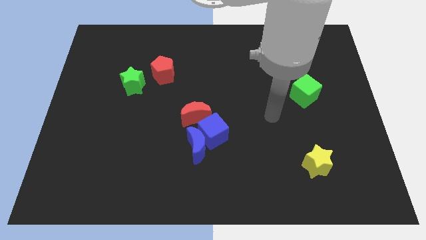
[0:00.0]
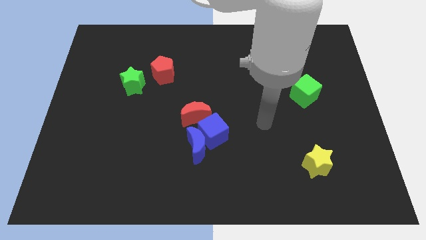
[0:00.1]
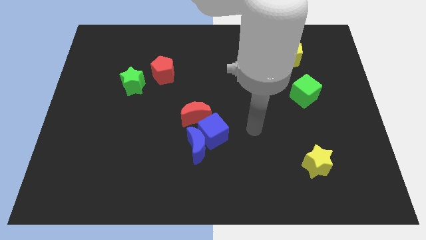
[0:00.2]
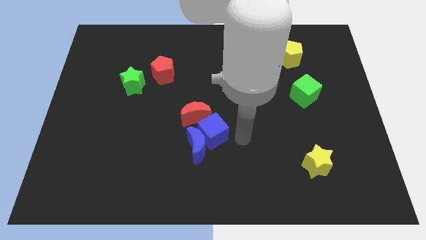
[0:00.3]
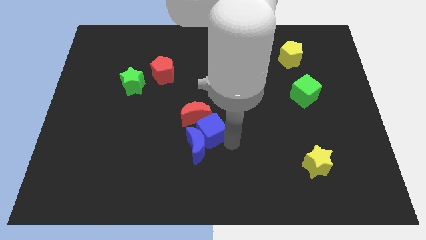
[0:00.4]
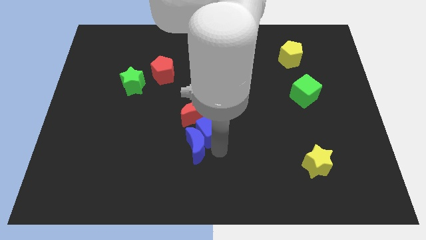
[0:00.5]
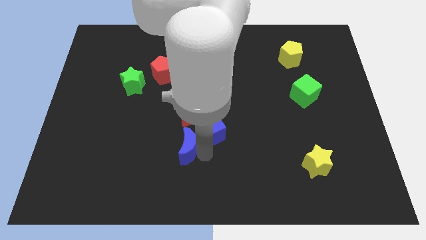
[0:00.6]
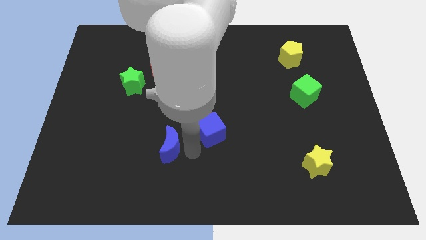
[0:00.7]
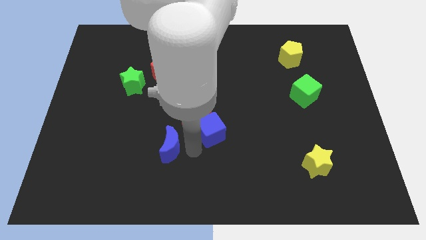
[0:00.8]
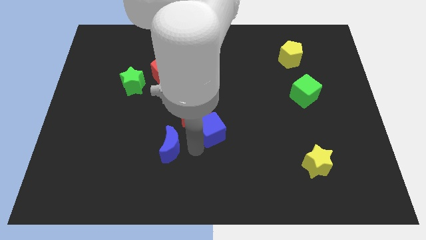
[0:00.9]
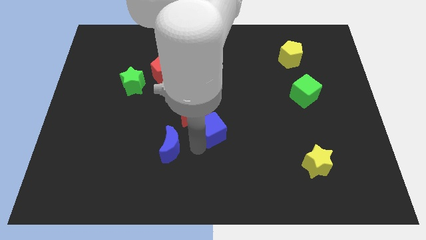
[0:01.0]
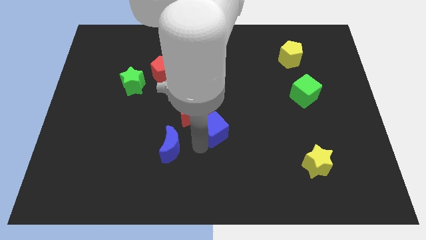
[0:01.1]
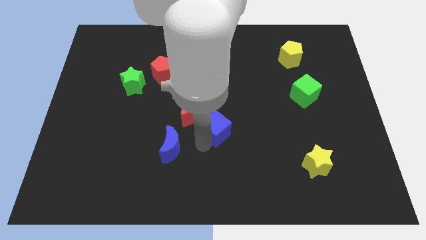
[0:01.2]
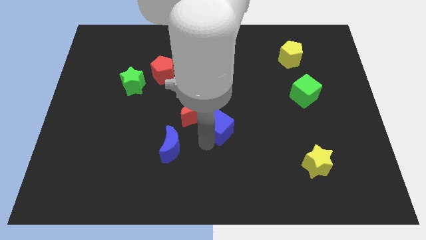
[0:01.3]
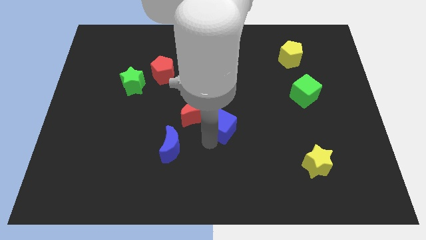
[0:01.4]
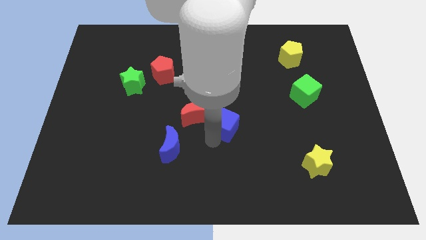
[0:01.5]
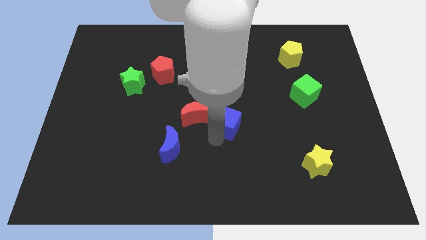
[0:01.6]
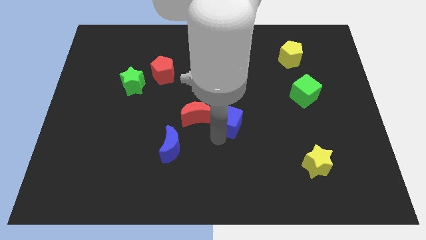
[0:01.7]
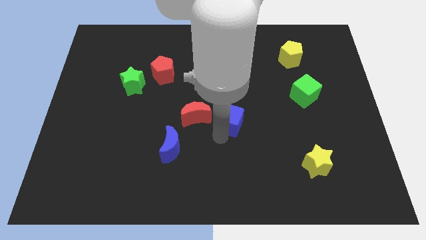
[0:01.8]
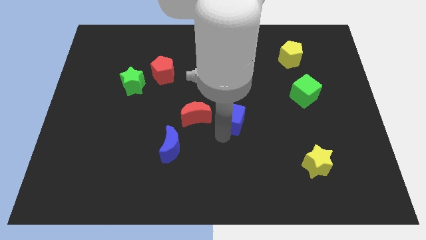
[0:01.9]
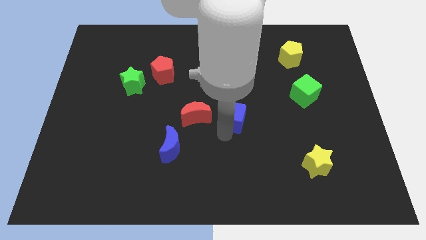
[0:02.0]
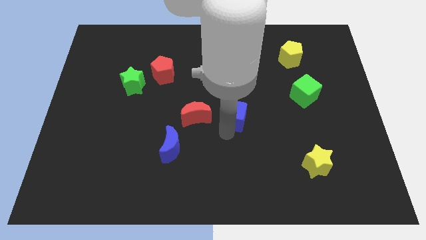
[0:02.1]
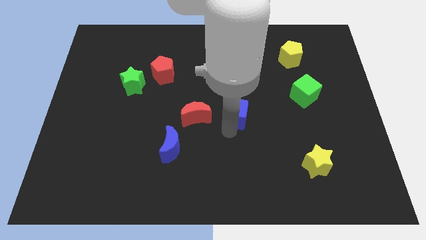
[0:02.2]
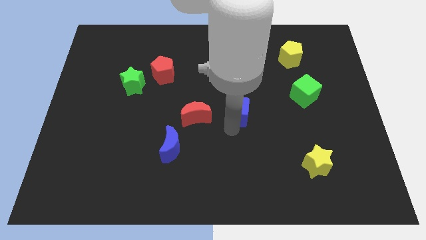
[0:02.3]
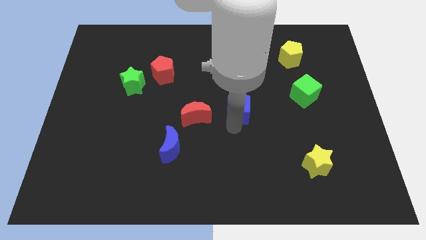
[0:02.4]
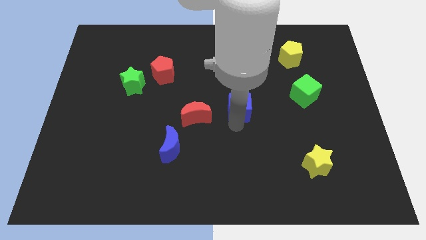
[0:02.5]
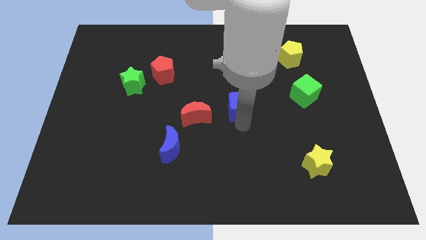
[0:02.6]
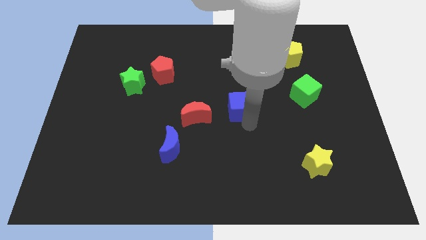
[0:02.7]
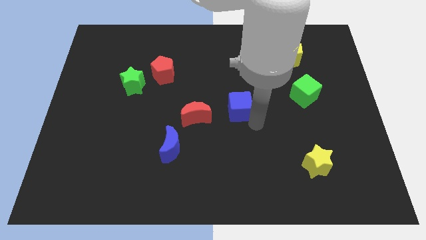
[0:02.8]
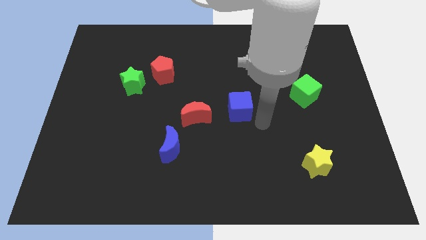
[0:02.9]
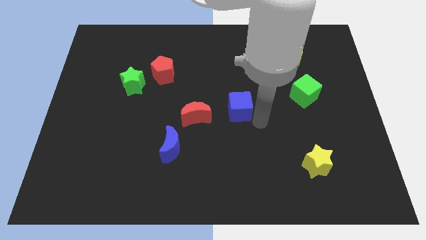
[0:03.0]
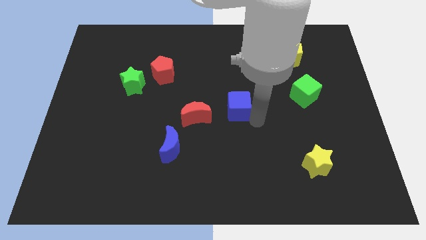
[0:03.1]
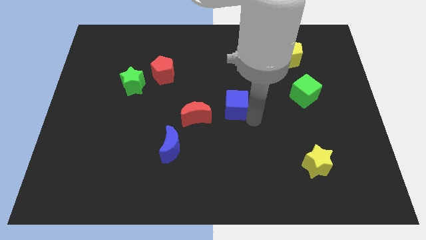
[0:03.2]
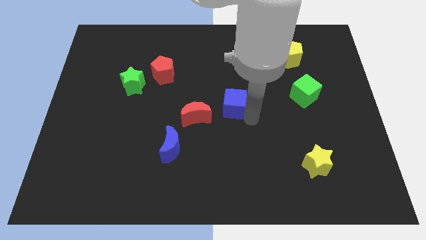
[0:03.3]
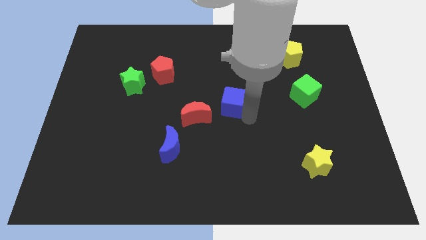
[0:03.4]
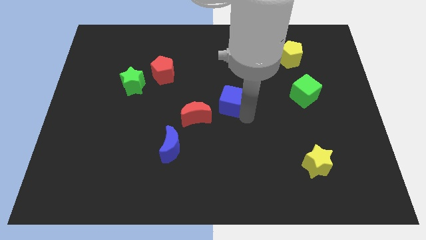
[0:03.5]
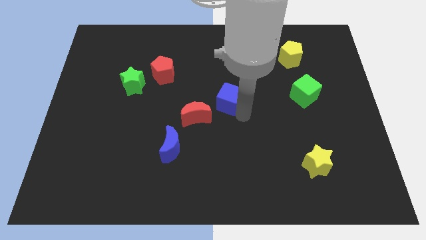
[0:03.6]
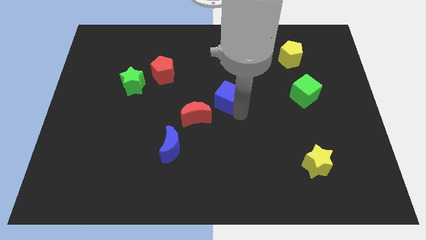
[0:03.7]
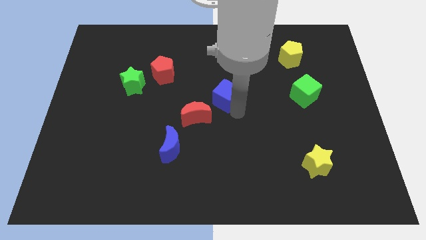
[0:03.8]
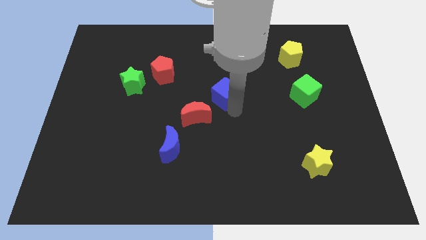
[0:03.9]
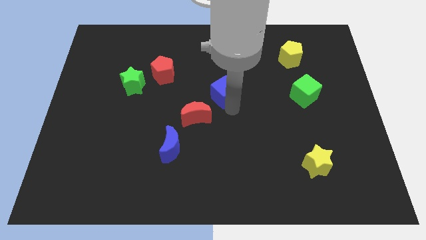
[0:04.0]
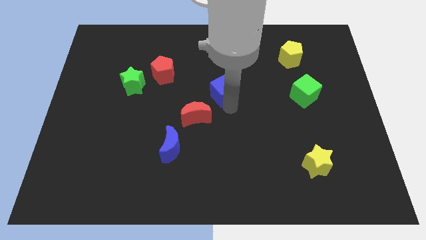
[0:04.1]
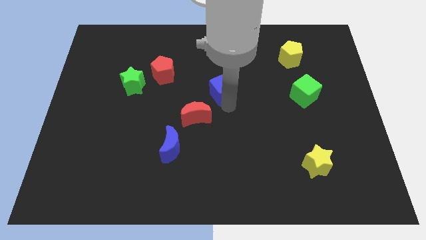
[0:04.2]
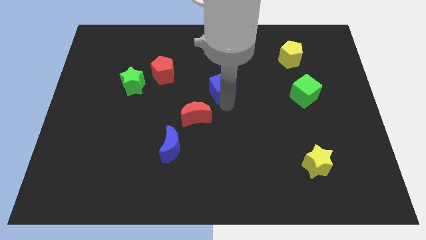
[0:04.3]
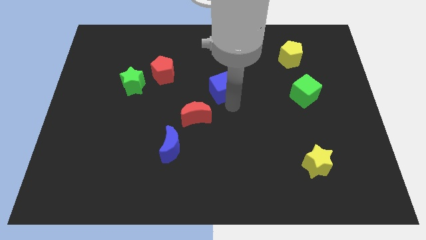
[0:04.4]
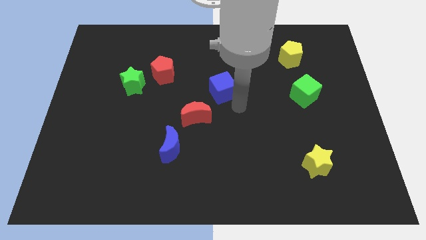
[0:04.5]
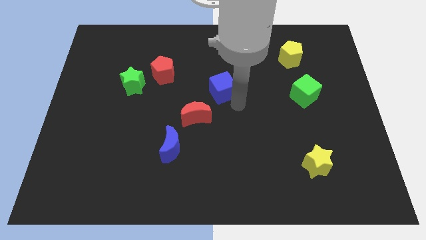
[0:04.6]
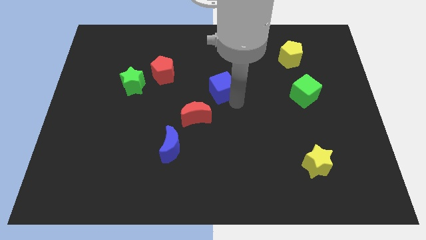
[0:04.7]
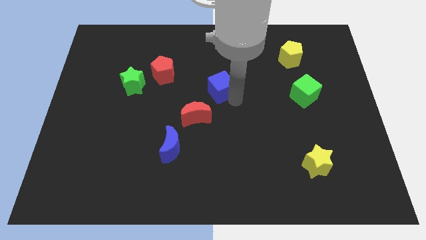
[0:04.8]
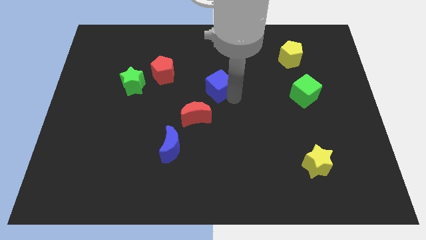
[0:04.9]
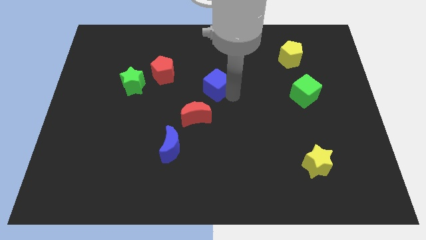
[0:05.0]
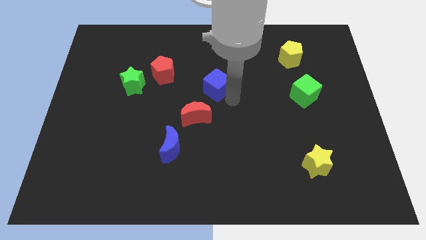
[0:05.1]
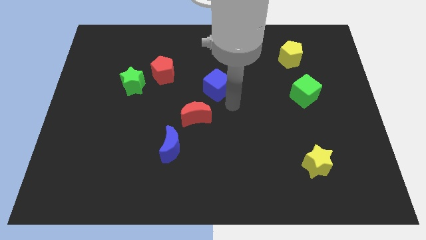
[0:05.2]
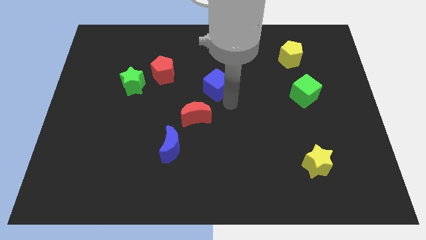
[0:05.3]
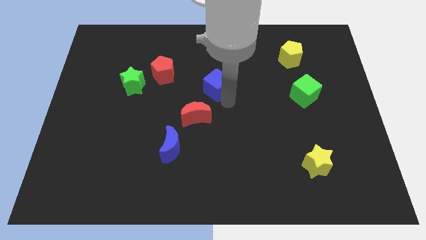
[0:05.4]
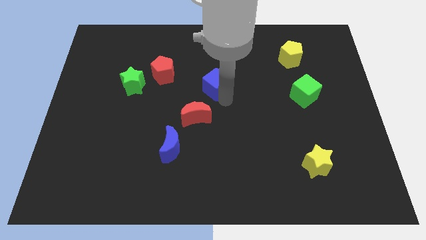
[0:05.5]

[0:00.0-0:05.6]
push the blue cube to the right of the red pentagon

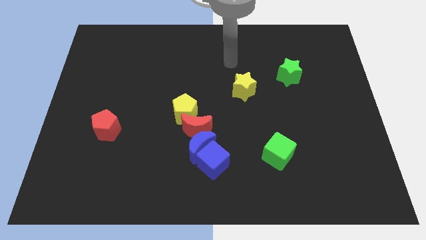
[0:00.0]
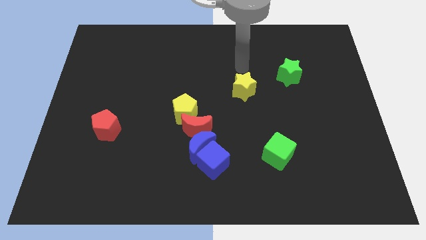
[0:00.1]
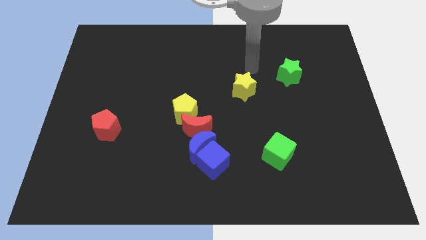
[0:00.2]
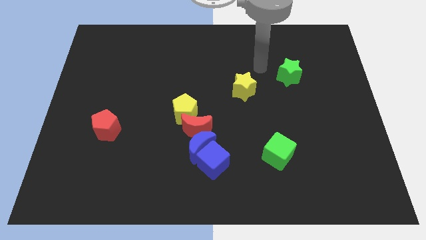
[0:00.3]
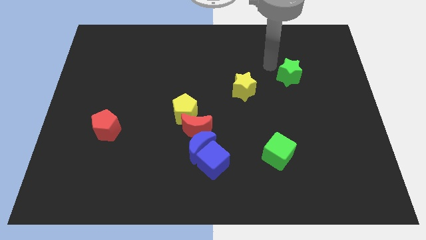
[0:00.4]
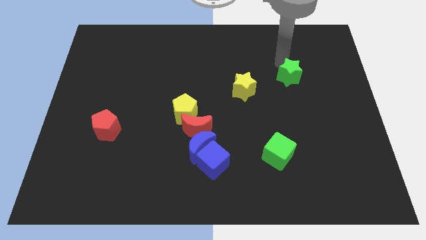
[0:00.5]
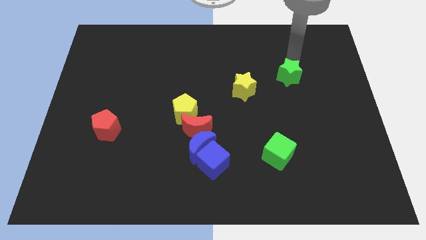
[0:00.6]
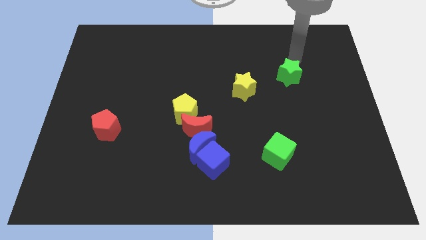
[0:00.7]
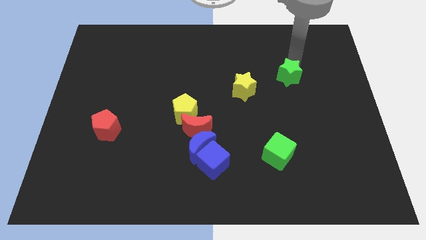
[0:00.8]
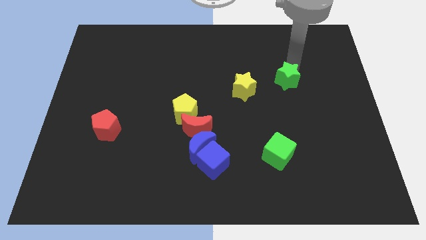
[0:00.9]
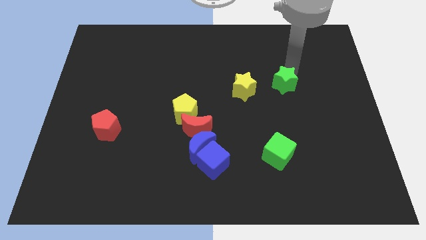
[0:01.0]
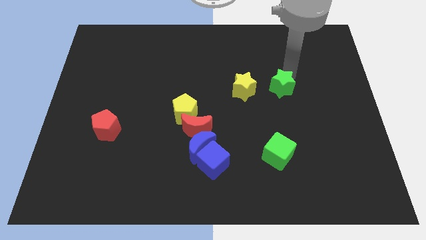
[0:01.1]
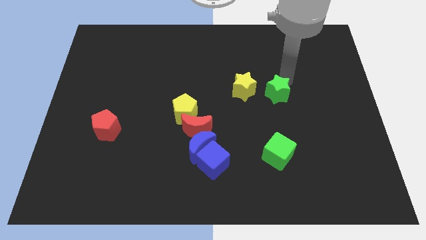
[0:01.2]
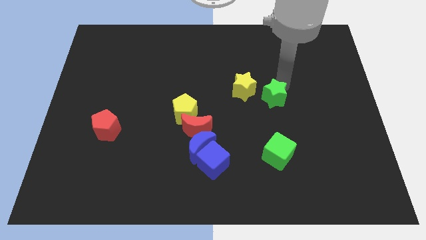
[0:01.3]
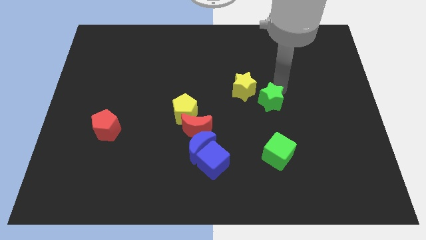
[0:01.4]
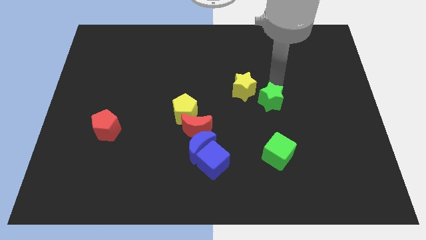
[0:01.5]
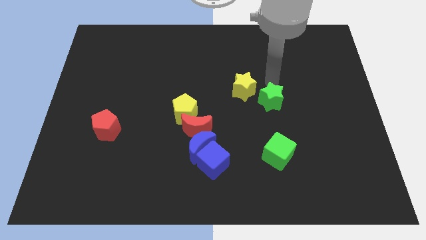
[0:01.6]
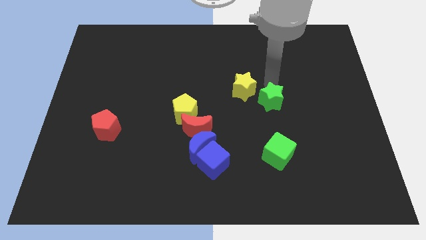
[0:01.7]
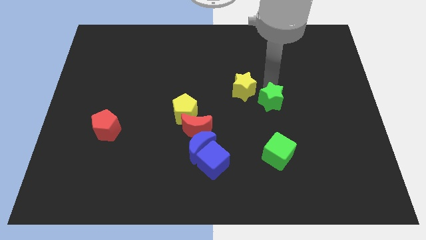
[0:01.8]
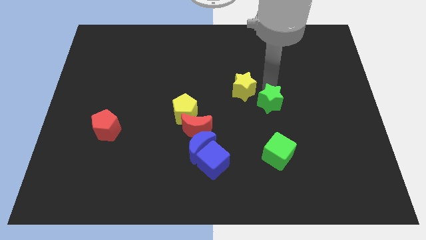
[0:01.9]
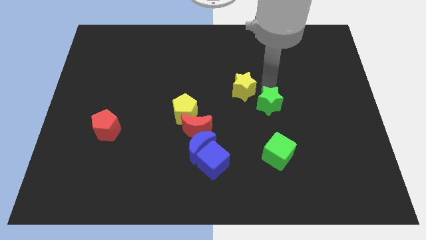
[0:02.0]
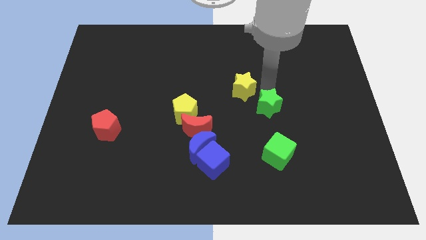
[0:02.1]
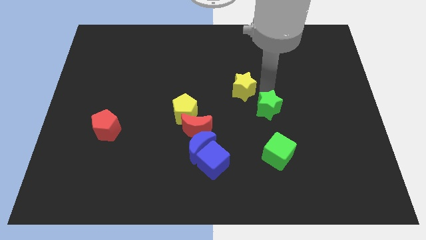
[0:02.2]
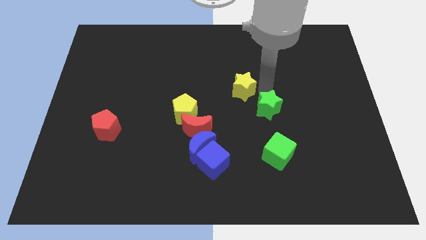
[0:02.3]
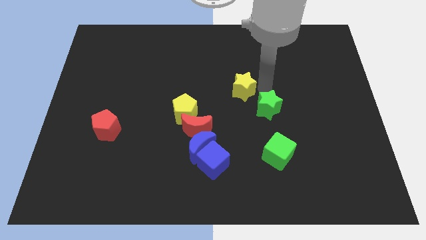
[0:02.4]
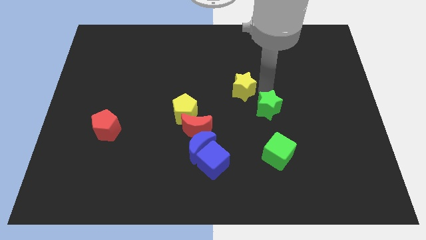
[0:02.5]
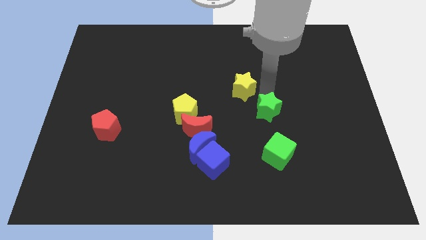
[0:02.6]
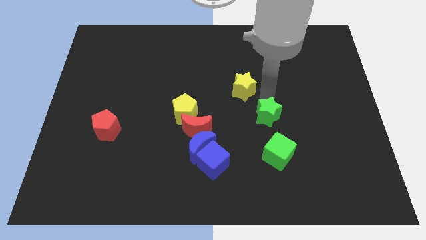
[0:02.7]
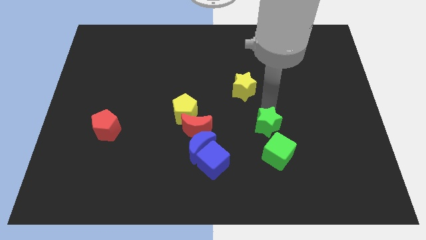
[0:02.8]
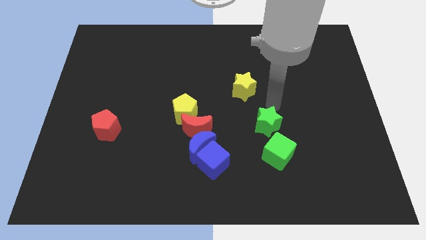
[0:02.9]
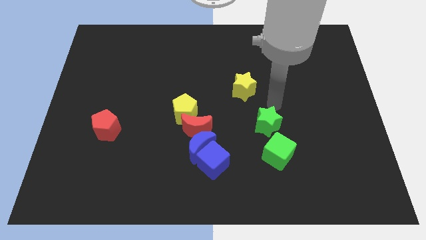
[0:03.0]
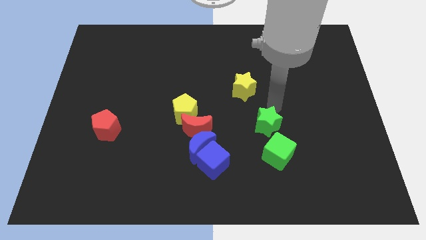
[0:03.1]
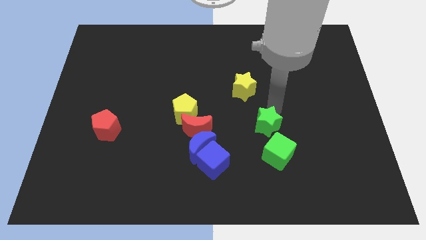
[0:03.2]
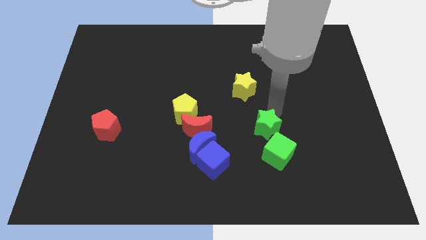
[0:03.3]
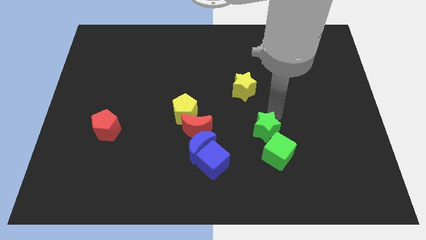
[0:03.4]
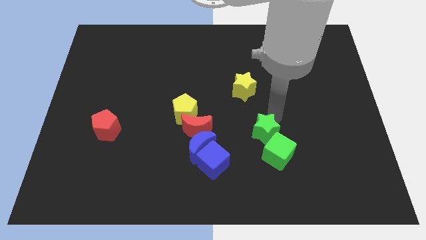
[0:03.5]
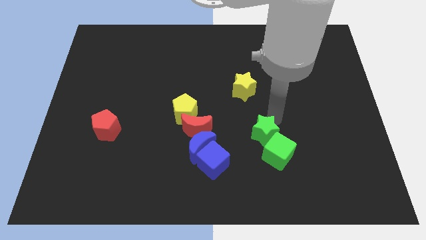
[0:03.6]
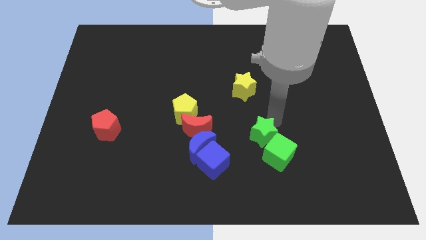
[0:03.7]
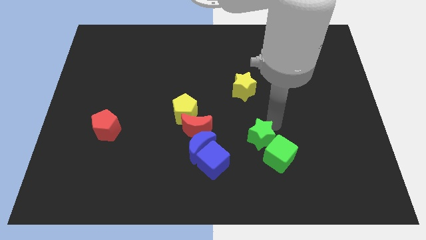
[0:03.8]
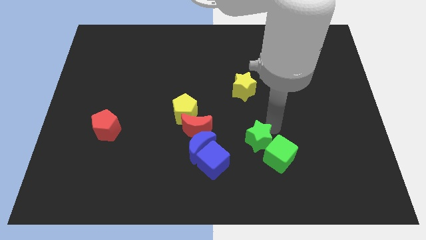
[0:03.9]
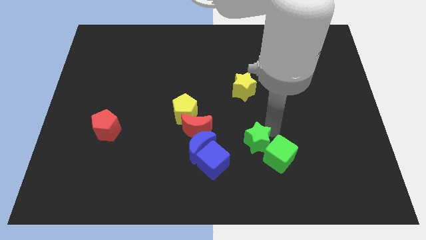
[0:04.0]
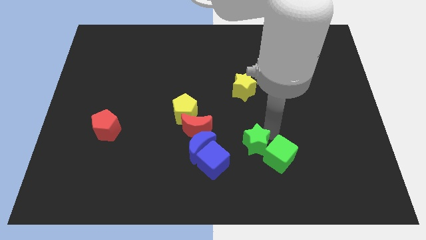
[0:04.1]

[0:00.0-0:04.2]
slide the green star to the right side of the blue cube
